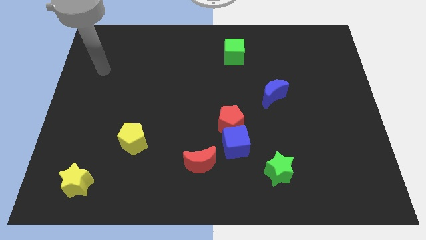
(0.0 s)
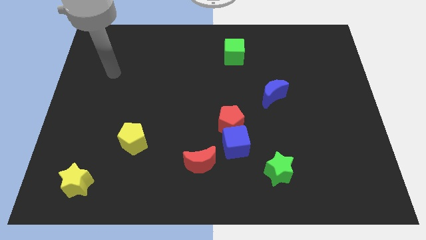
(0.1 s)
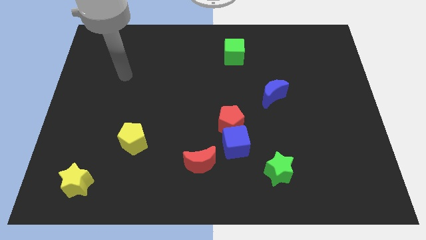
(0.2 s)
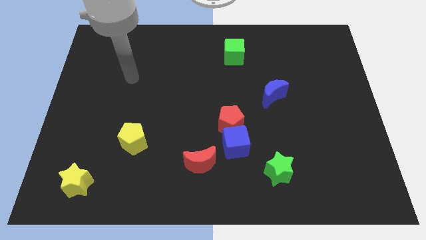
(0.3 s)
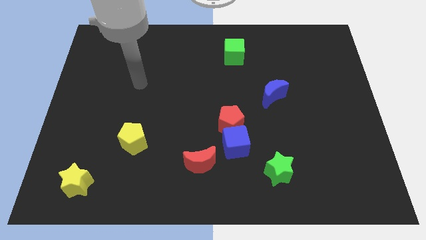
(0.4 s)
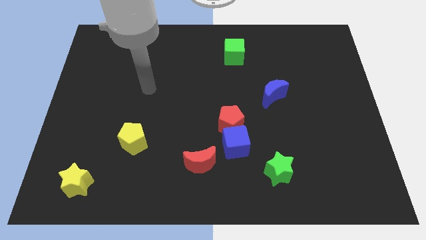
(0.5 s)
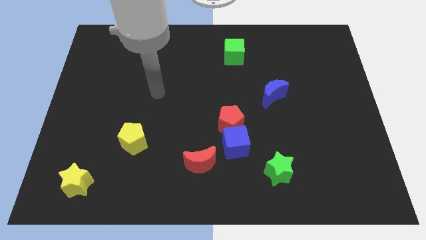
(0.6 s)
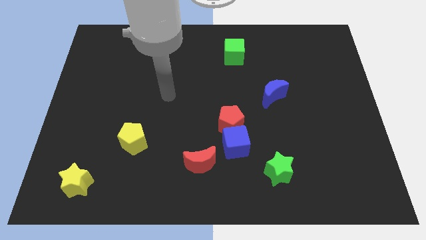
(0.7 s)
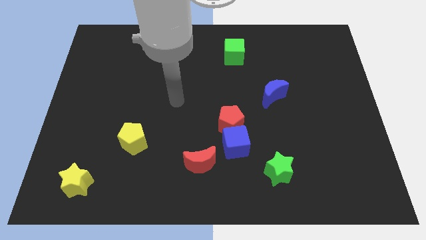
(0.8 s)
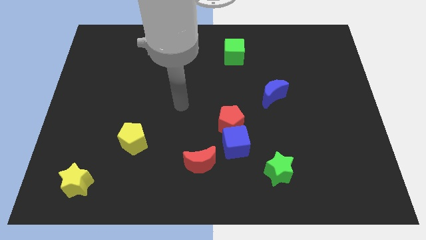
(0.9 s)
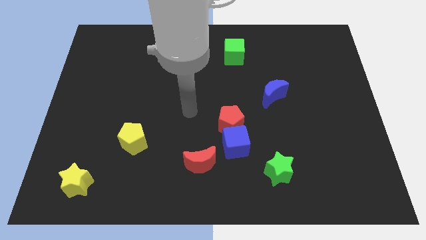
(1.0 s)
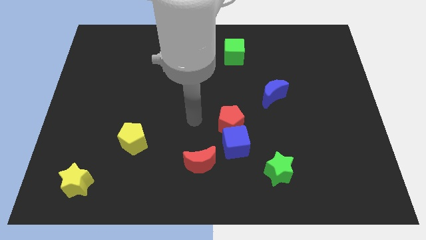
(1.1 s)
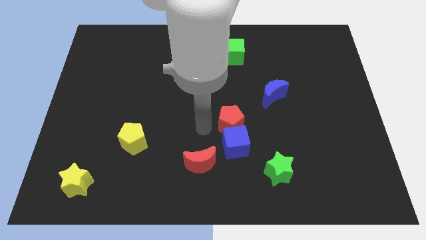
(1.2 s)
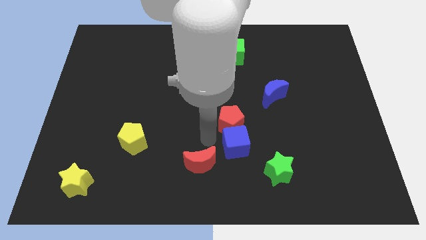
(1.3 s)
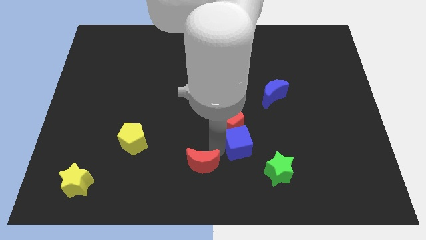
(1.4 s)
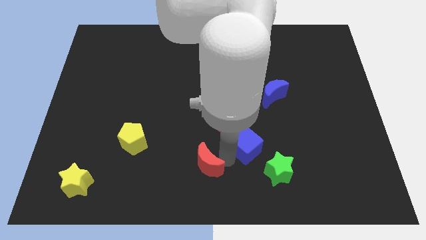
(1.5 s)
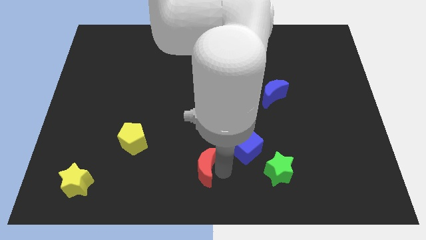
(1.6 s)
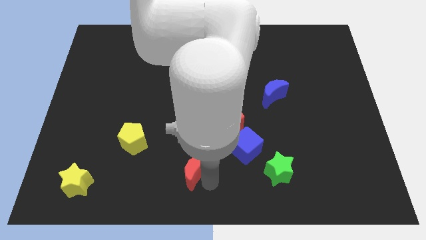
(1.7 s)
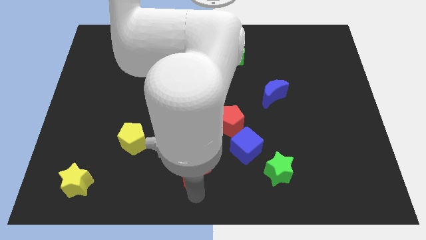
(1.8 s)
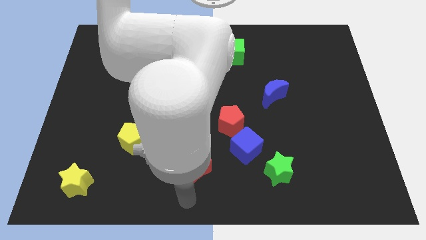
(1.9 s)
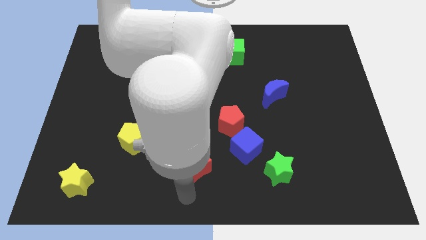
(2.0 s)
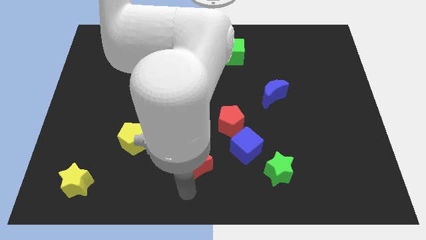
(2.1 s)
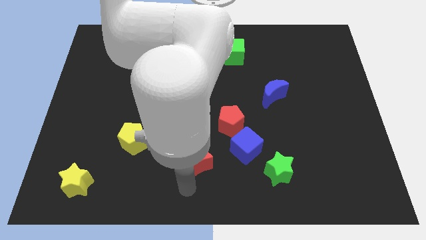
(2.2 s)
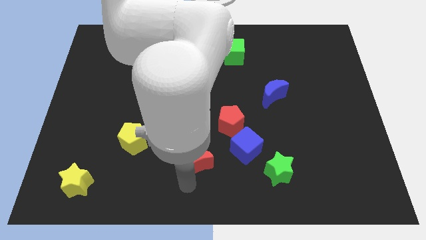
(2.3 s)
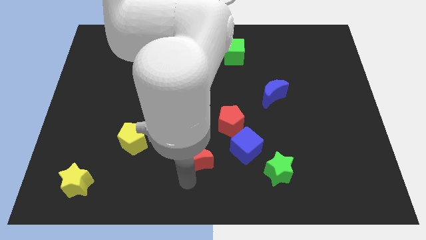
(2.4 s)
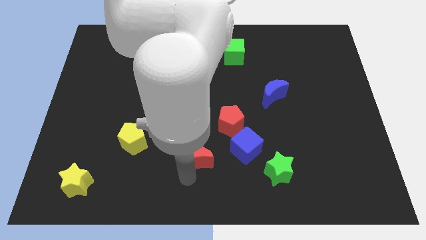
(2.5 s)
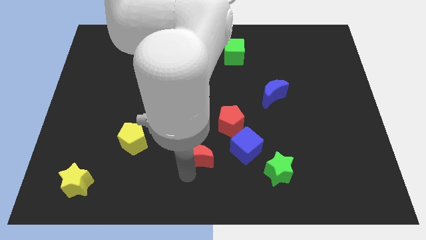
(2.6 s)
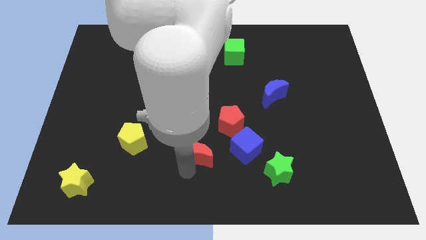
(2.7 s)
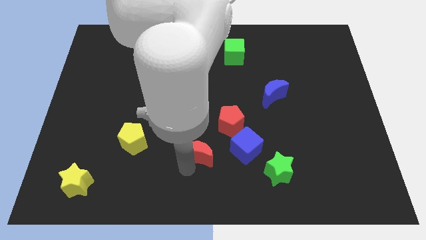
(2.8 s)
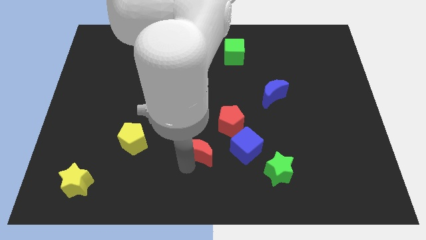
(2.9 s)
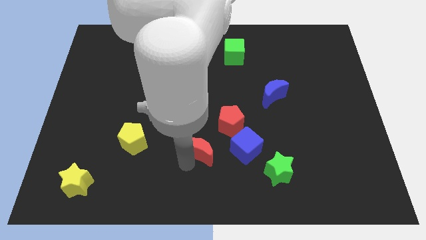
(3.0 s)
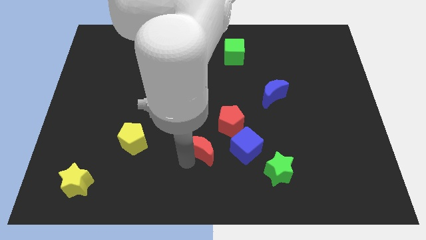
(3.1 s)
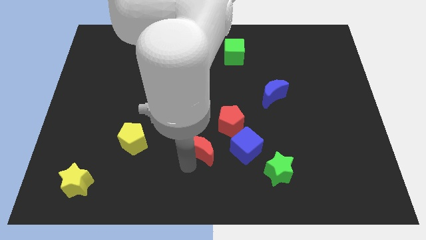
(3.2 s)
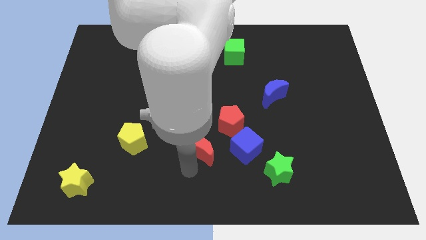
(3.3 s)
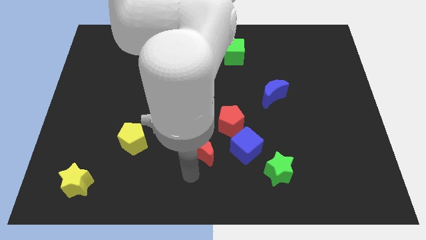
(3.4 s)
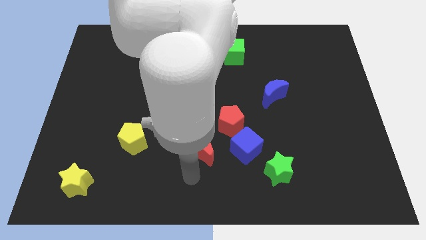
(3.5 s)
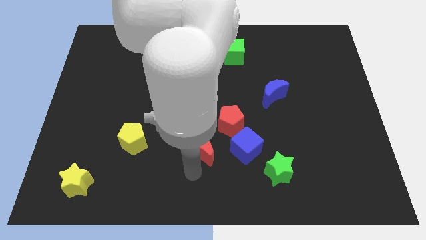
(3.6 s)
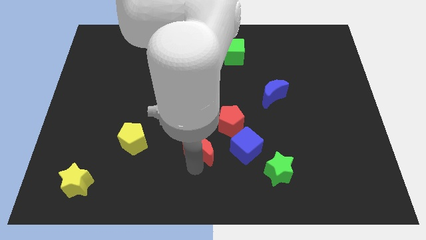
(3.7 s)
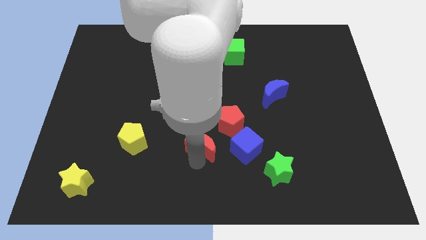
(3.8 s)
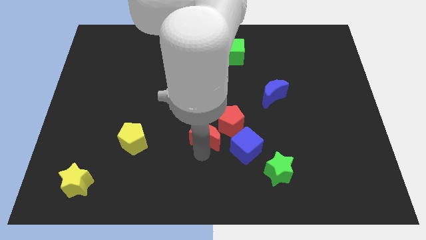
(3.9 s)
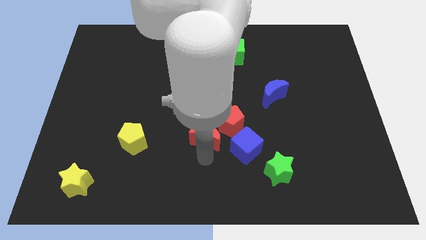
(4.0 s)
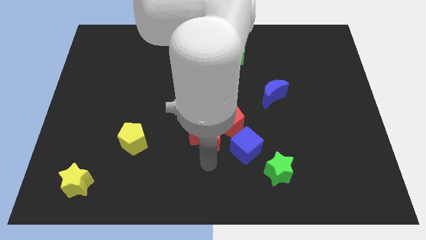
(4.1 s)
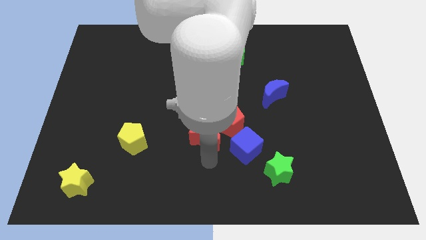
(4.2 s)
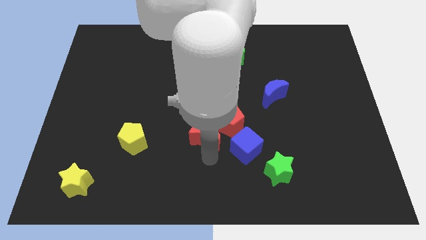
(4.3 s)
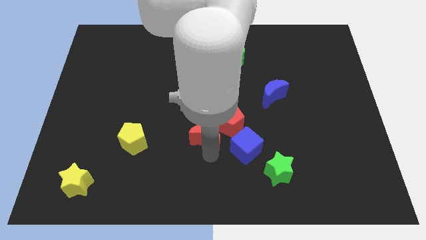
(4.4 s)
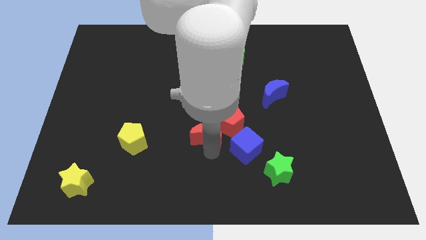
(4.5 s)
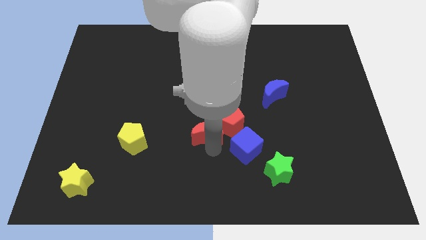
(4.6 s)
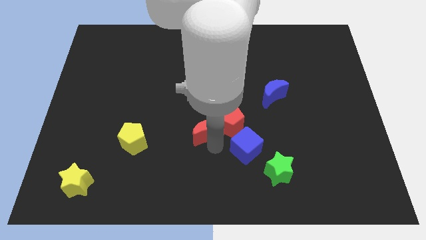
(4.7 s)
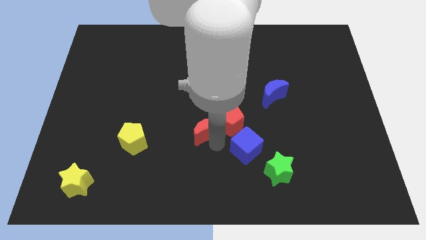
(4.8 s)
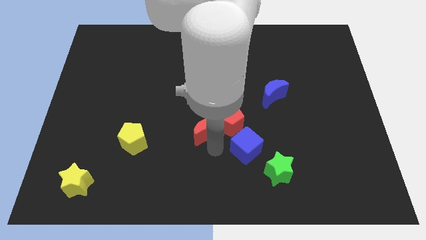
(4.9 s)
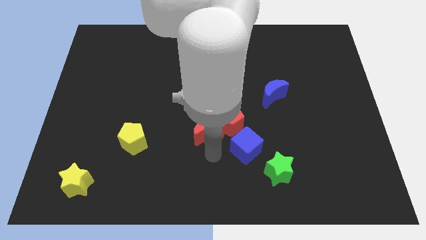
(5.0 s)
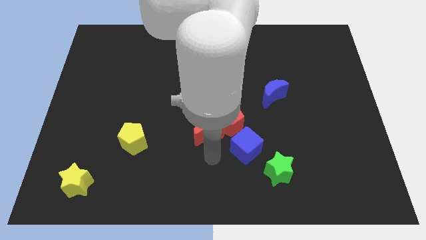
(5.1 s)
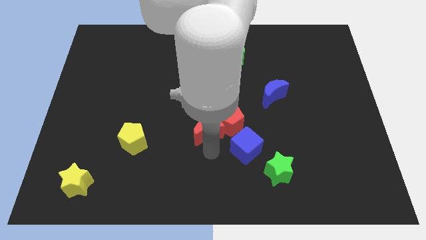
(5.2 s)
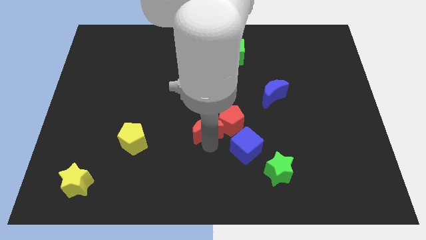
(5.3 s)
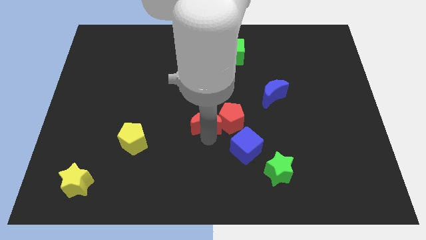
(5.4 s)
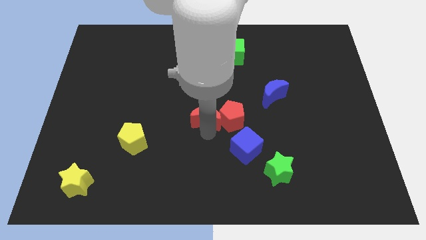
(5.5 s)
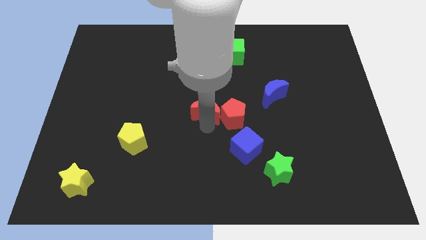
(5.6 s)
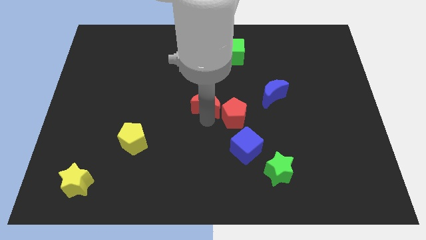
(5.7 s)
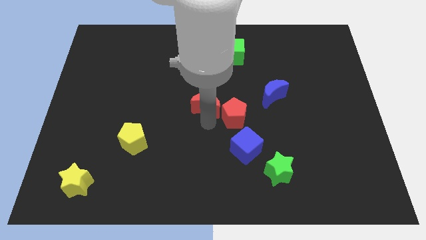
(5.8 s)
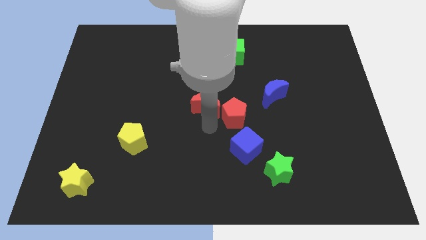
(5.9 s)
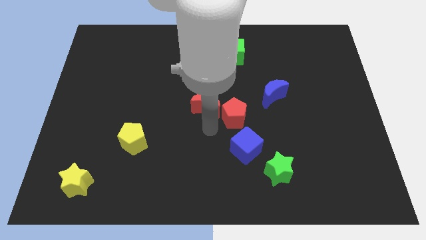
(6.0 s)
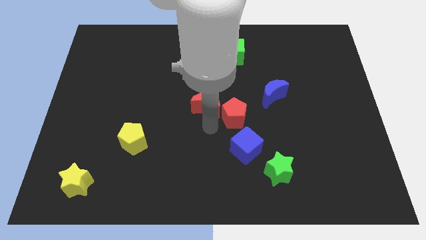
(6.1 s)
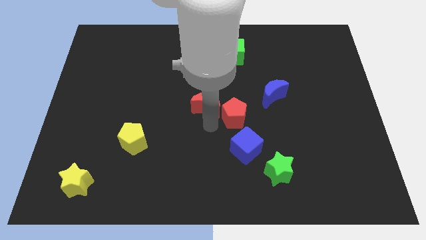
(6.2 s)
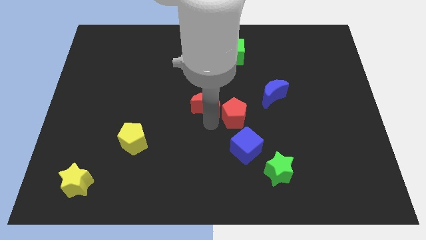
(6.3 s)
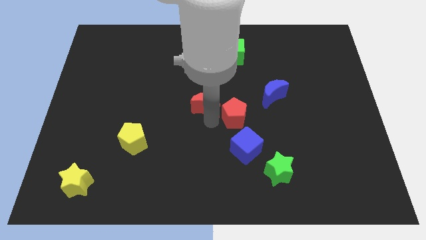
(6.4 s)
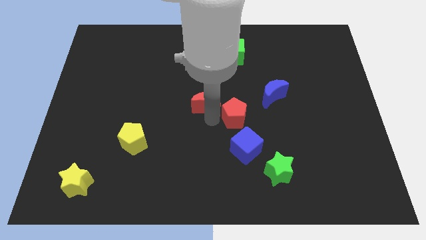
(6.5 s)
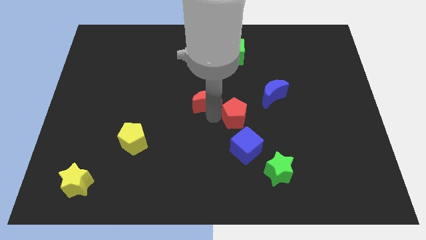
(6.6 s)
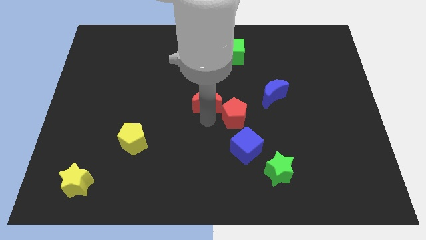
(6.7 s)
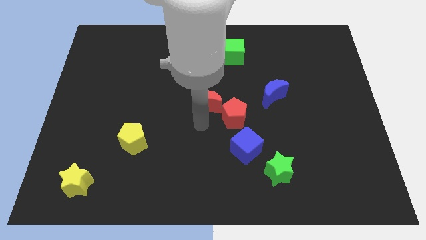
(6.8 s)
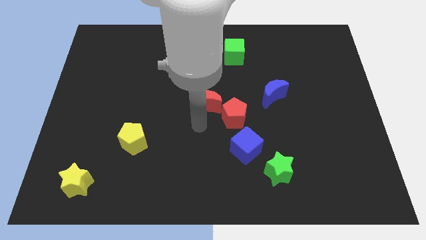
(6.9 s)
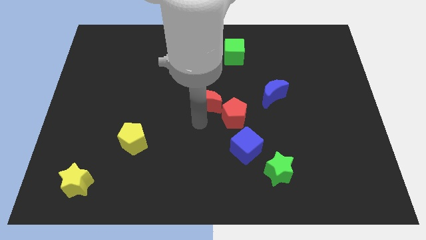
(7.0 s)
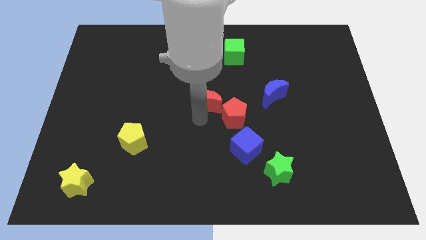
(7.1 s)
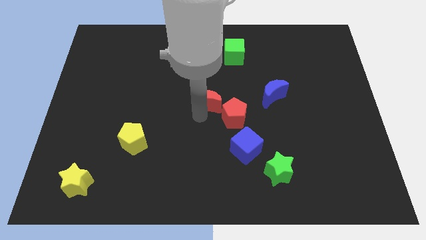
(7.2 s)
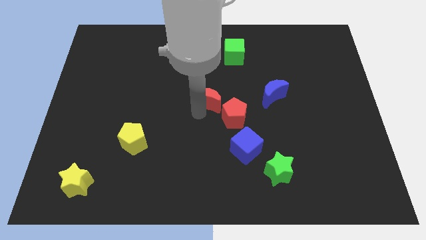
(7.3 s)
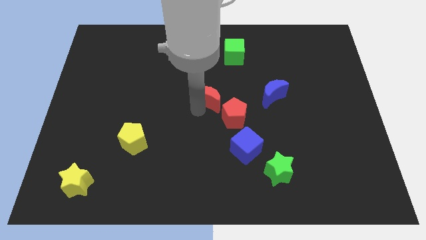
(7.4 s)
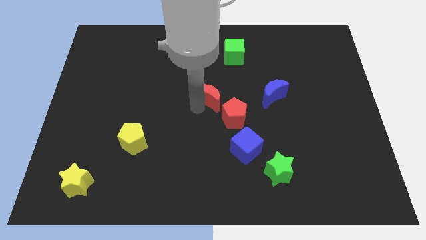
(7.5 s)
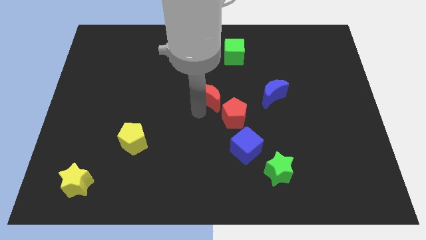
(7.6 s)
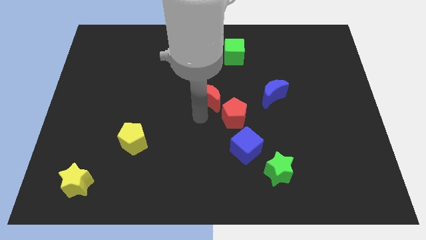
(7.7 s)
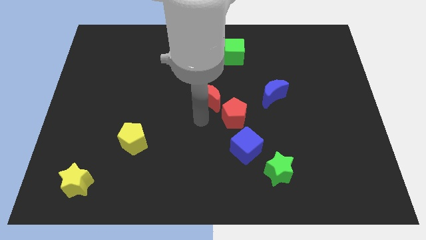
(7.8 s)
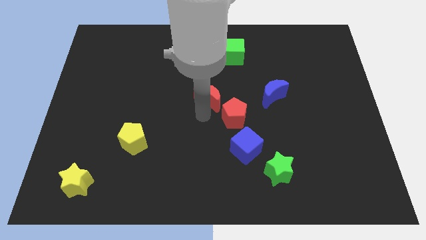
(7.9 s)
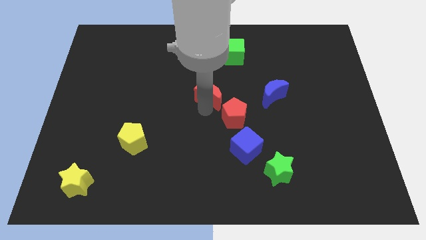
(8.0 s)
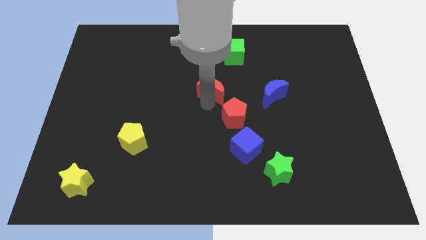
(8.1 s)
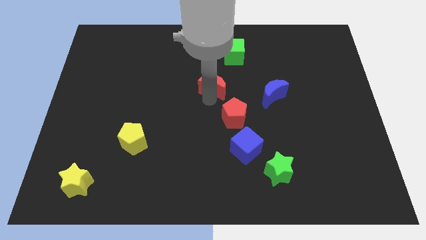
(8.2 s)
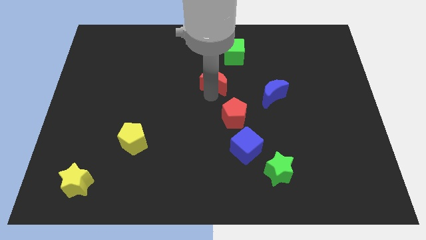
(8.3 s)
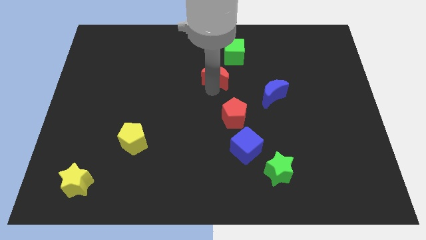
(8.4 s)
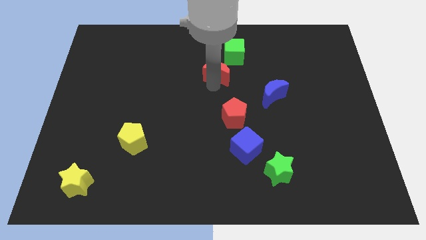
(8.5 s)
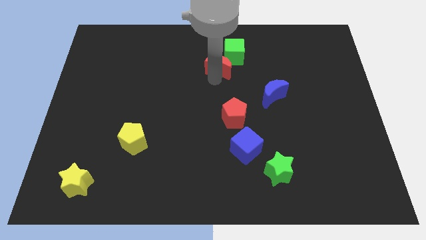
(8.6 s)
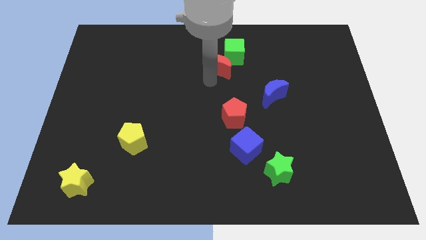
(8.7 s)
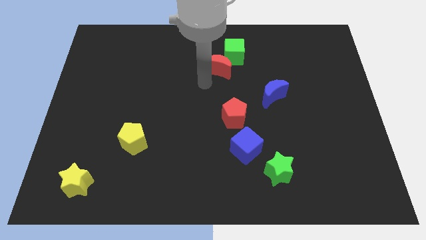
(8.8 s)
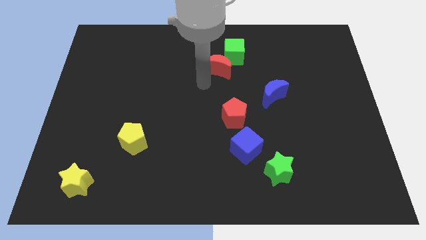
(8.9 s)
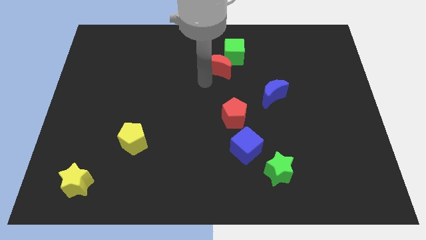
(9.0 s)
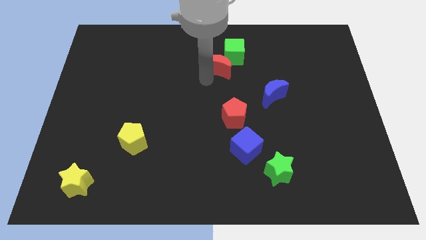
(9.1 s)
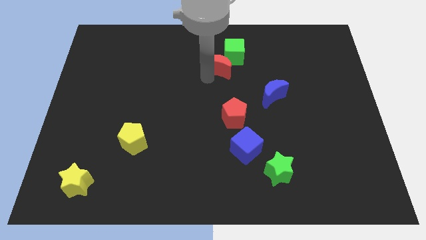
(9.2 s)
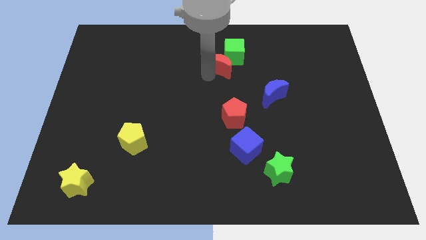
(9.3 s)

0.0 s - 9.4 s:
slide the red moon next to the green cube
